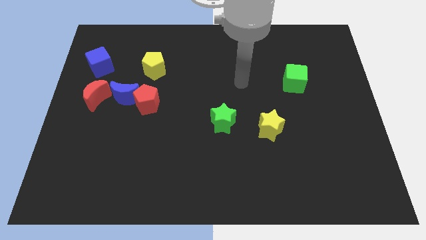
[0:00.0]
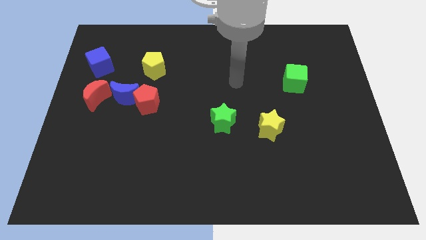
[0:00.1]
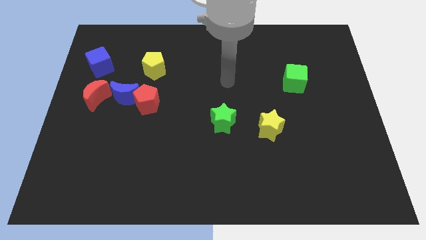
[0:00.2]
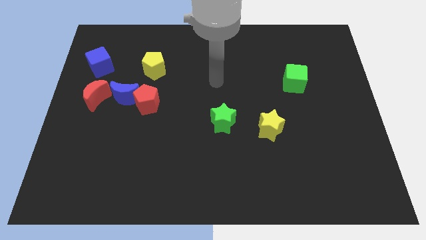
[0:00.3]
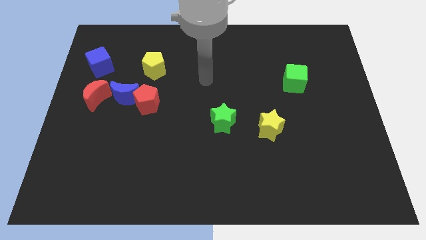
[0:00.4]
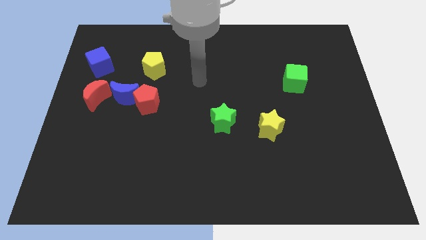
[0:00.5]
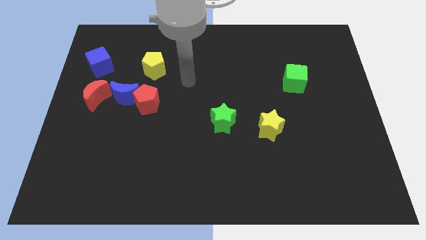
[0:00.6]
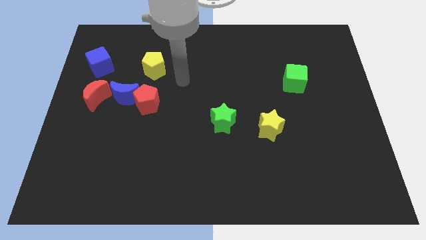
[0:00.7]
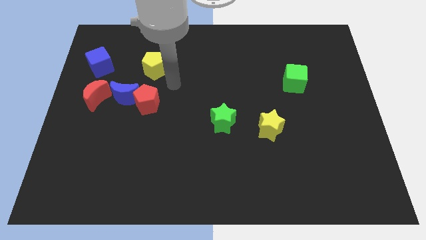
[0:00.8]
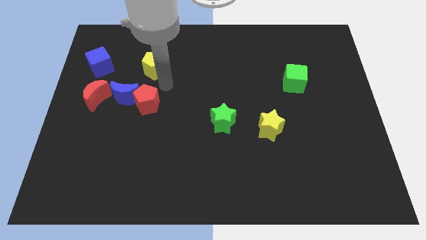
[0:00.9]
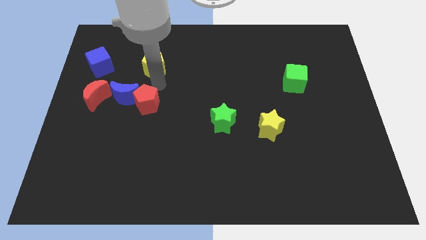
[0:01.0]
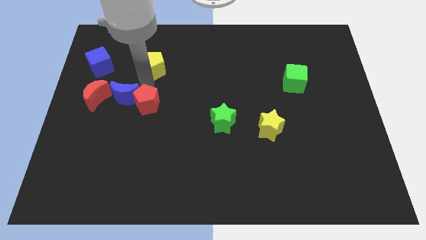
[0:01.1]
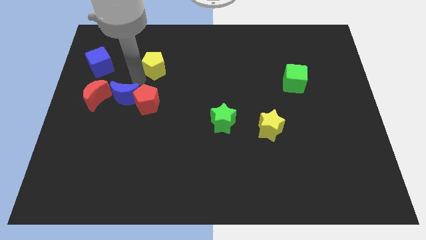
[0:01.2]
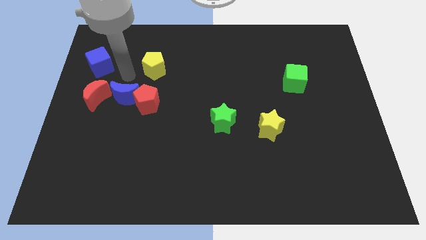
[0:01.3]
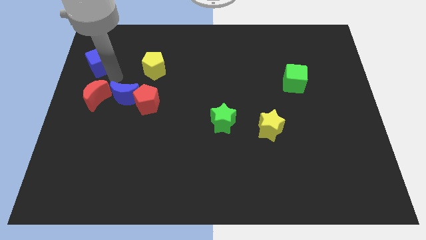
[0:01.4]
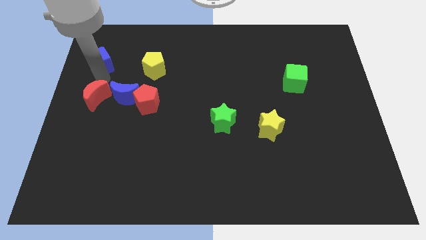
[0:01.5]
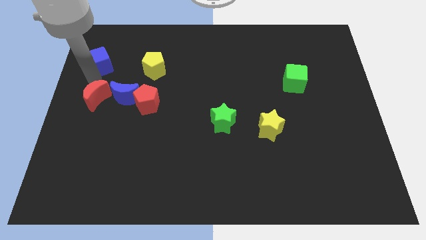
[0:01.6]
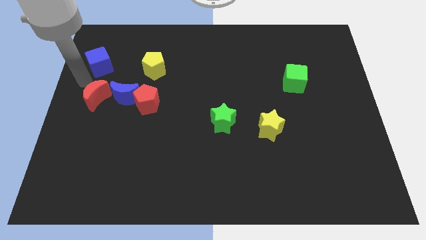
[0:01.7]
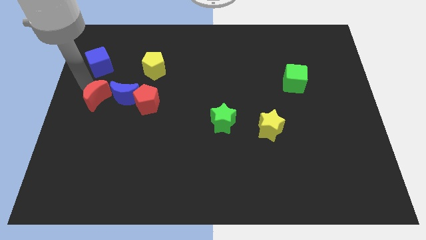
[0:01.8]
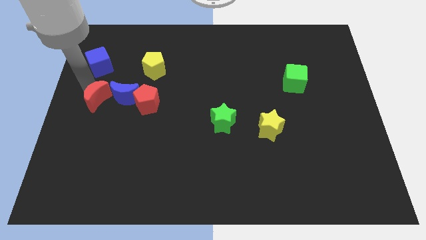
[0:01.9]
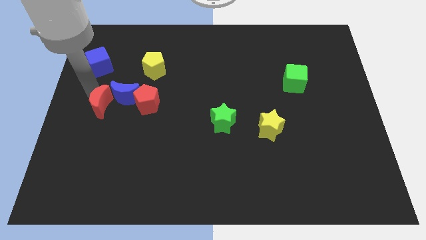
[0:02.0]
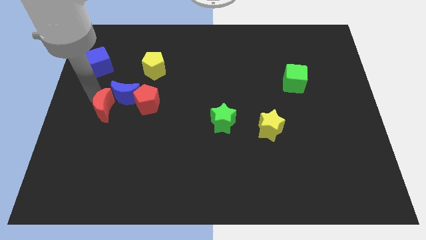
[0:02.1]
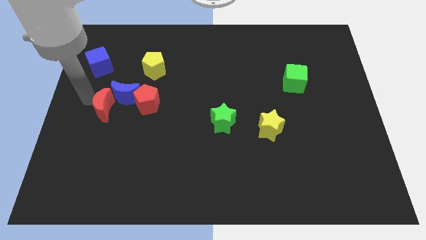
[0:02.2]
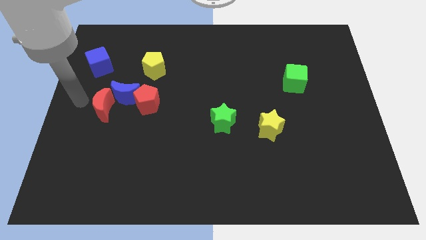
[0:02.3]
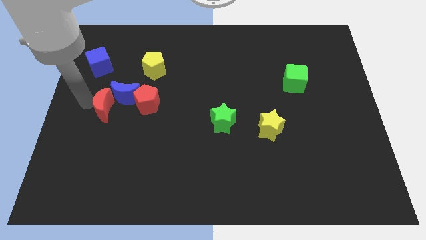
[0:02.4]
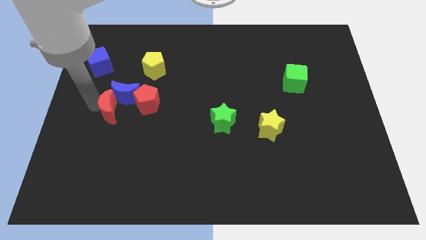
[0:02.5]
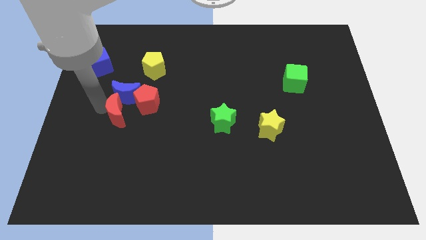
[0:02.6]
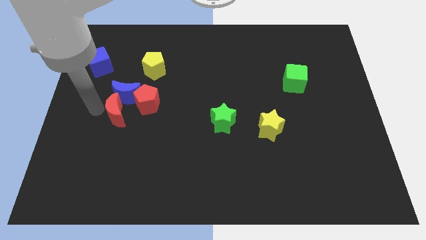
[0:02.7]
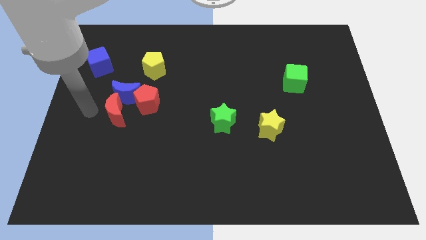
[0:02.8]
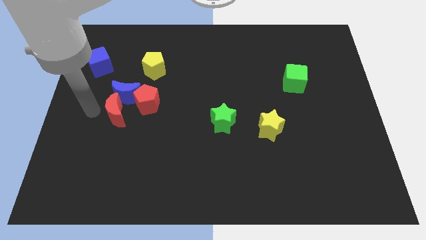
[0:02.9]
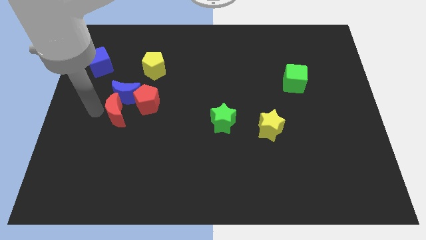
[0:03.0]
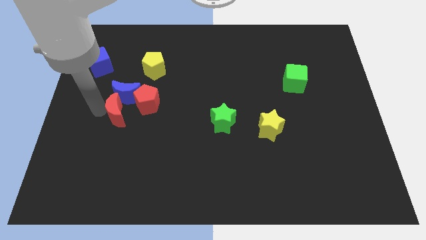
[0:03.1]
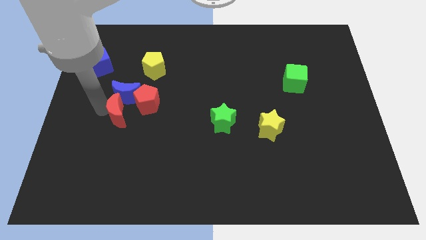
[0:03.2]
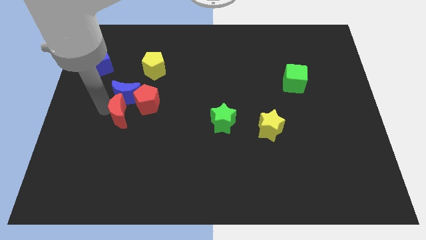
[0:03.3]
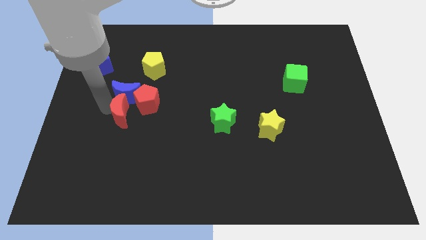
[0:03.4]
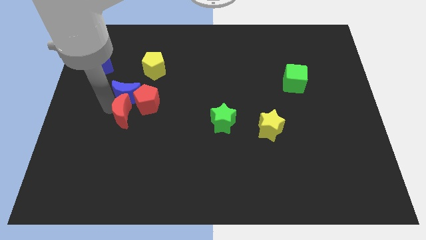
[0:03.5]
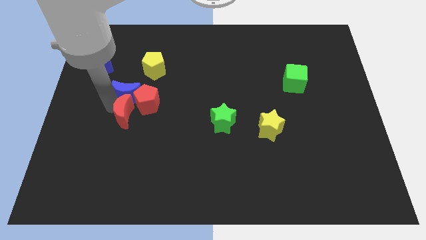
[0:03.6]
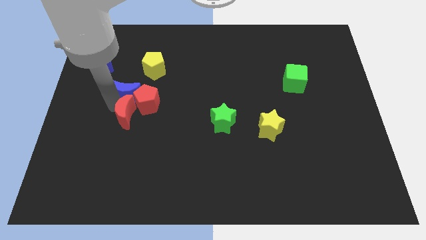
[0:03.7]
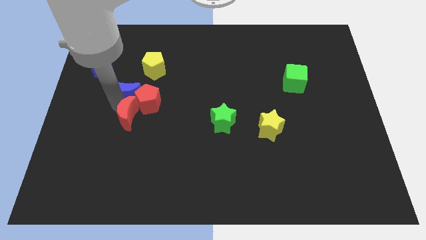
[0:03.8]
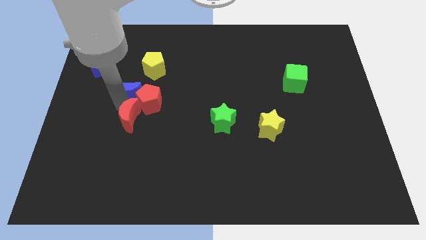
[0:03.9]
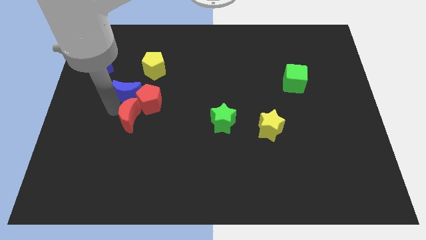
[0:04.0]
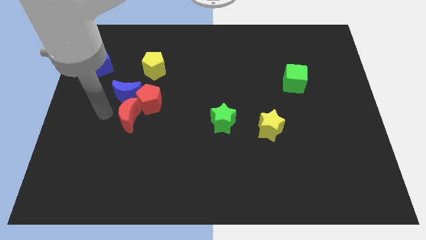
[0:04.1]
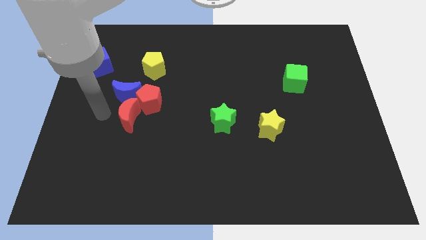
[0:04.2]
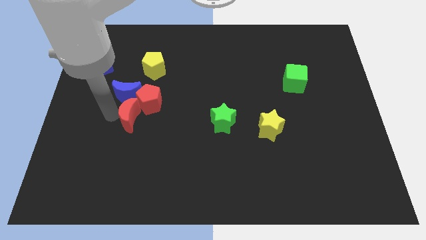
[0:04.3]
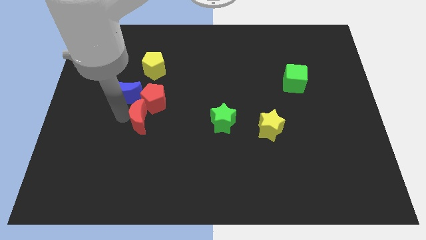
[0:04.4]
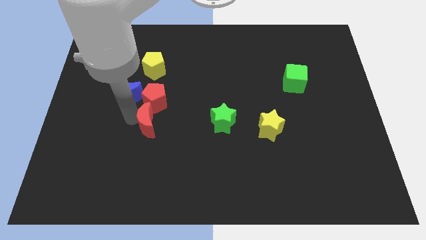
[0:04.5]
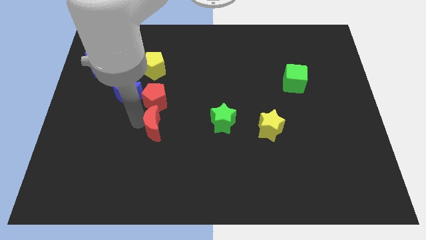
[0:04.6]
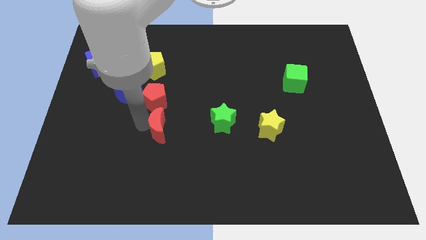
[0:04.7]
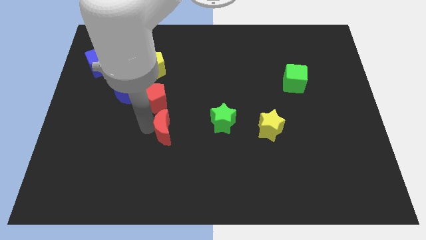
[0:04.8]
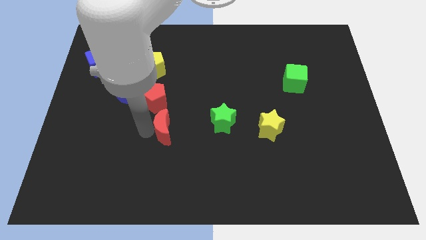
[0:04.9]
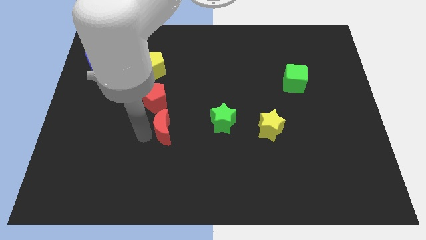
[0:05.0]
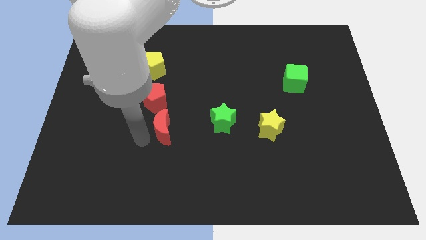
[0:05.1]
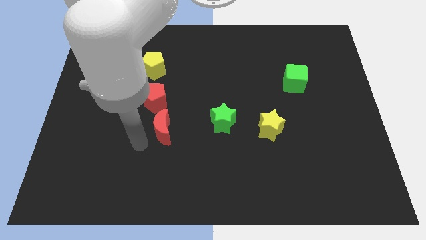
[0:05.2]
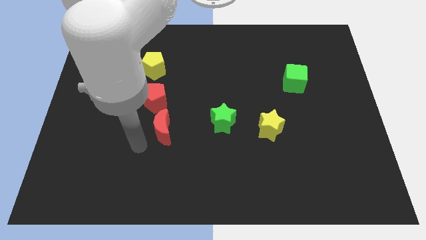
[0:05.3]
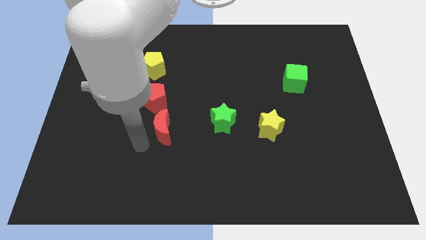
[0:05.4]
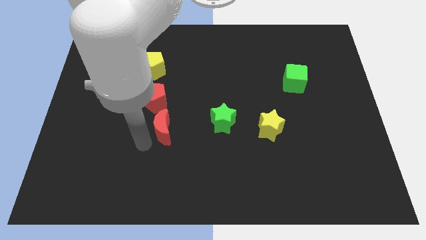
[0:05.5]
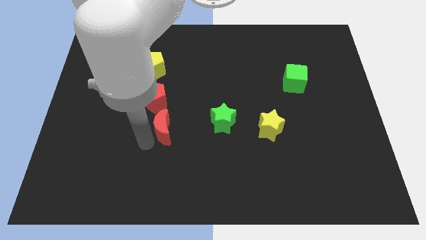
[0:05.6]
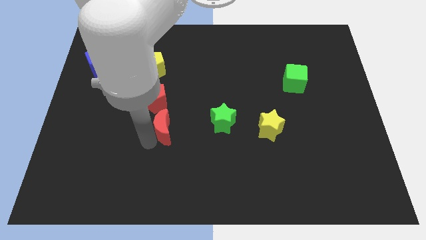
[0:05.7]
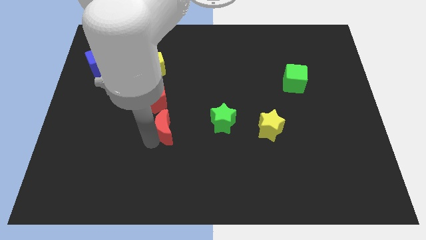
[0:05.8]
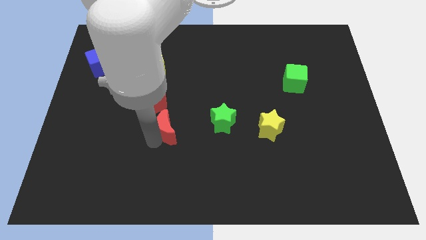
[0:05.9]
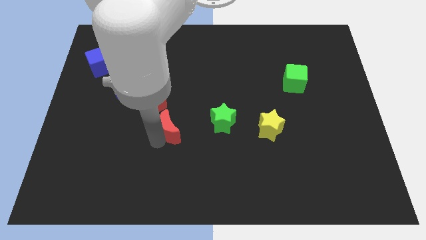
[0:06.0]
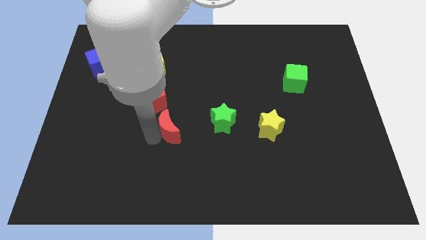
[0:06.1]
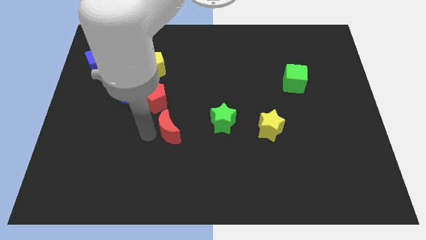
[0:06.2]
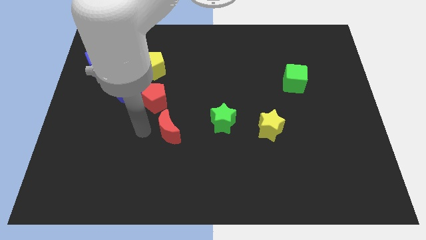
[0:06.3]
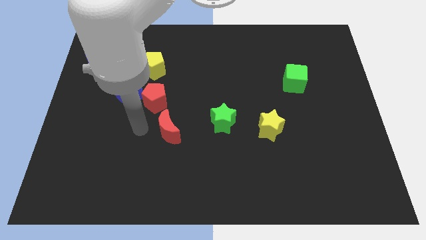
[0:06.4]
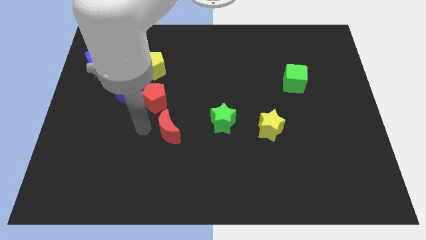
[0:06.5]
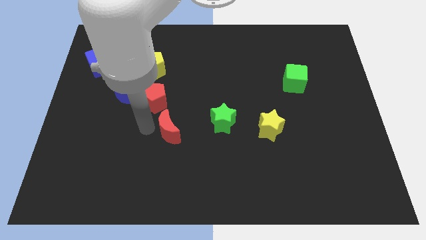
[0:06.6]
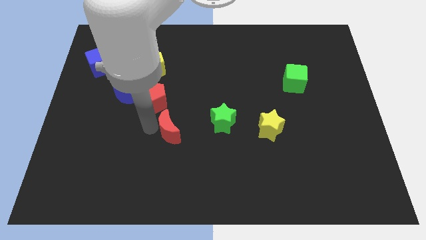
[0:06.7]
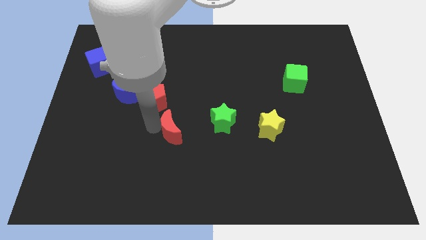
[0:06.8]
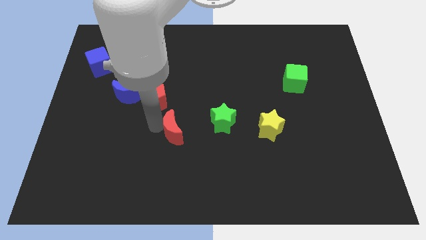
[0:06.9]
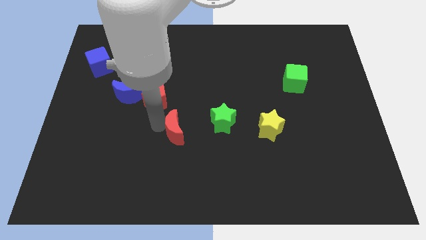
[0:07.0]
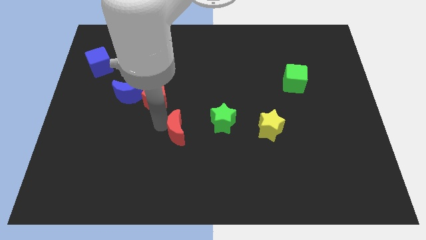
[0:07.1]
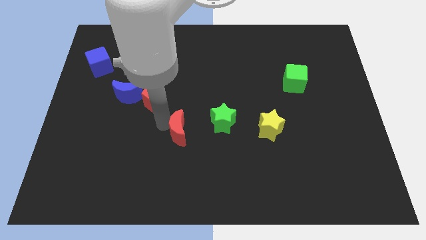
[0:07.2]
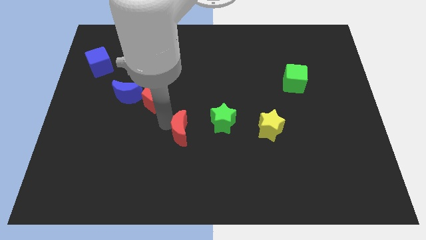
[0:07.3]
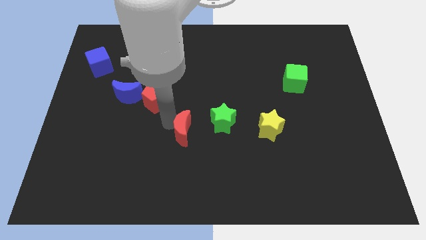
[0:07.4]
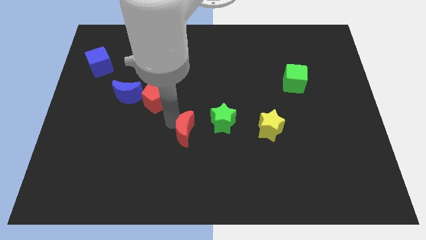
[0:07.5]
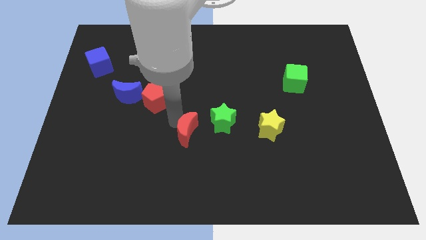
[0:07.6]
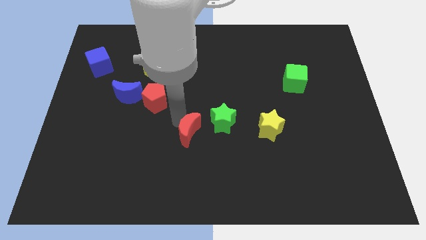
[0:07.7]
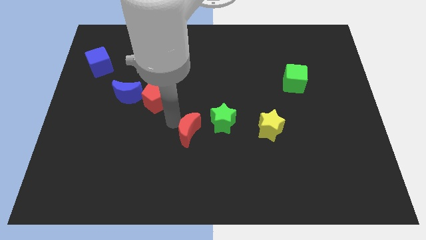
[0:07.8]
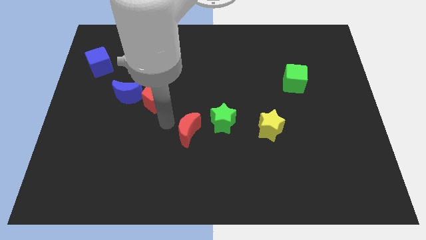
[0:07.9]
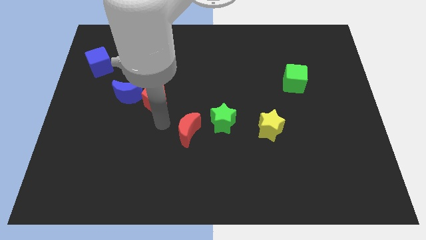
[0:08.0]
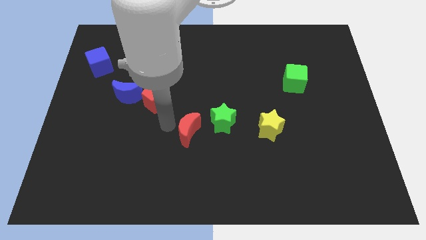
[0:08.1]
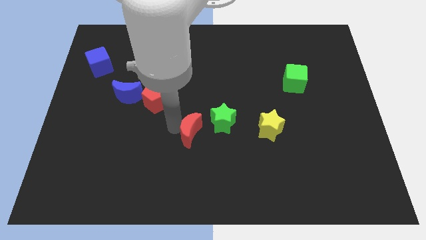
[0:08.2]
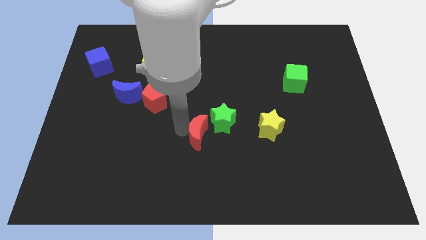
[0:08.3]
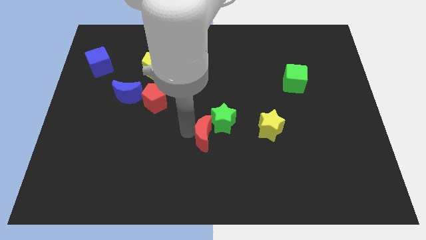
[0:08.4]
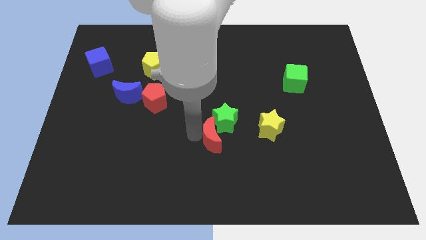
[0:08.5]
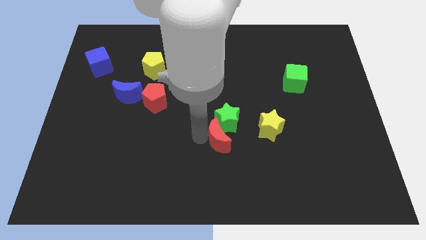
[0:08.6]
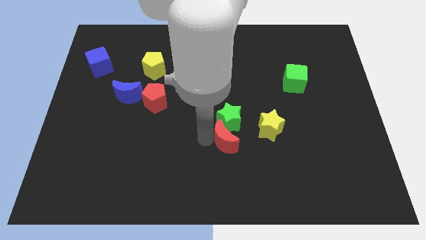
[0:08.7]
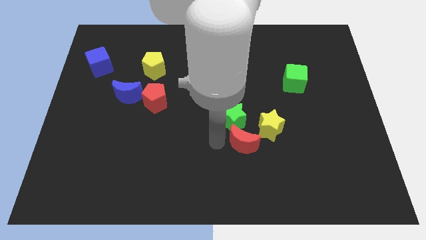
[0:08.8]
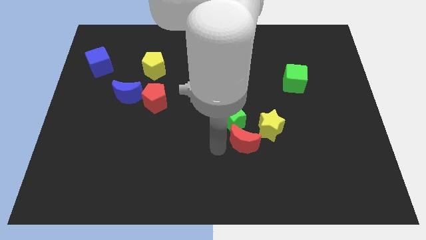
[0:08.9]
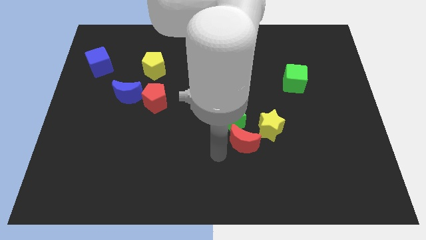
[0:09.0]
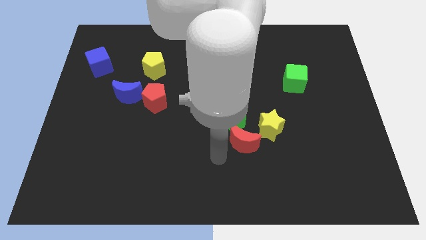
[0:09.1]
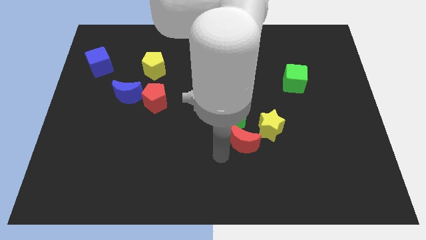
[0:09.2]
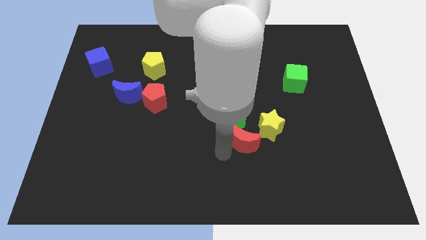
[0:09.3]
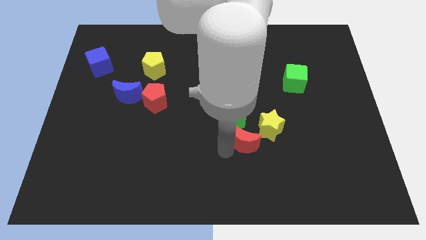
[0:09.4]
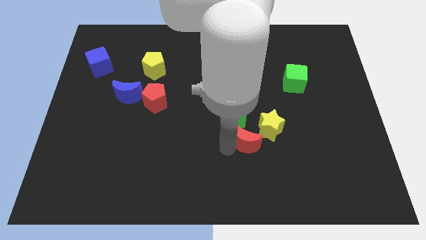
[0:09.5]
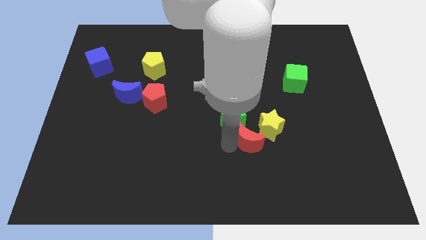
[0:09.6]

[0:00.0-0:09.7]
move the red moon towards the yellow star
